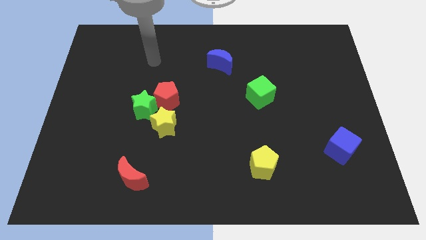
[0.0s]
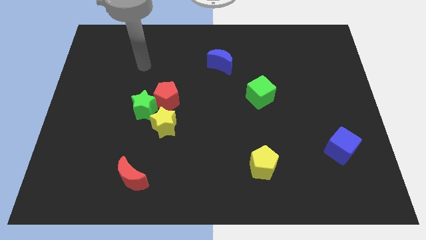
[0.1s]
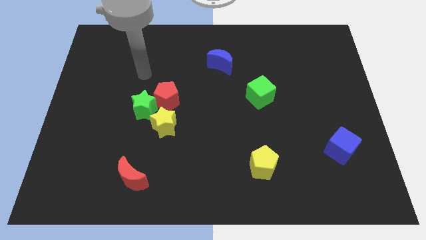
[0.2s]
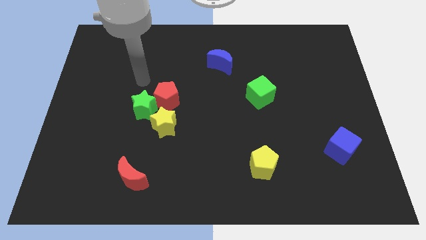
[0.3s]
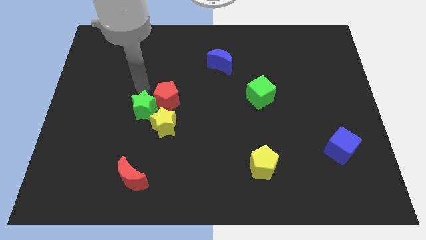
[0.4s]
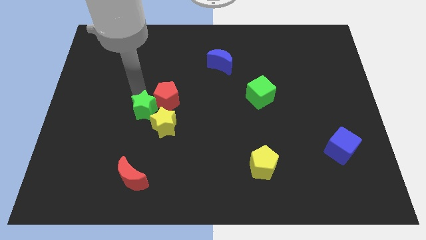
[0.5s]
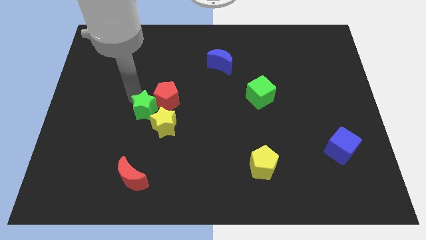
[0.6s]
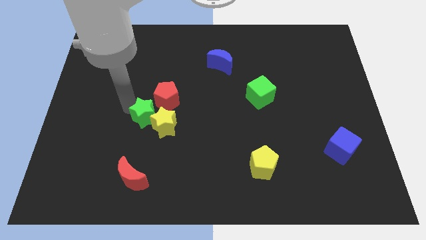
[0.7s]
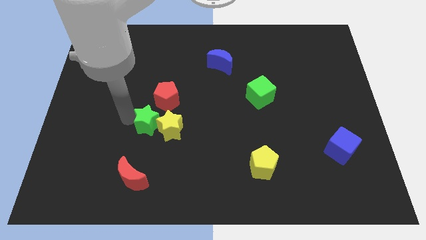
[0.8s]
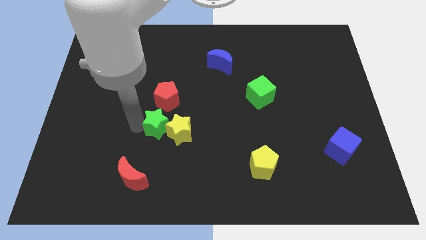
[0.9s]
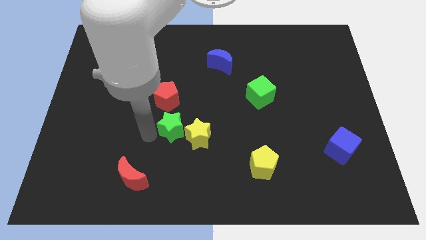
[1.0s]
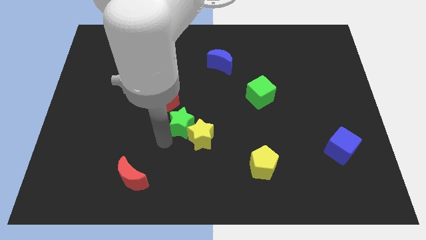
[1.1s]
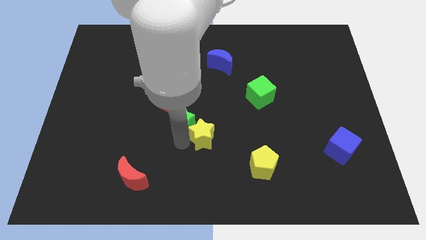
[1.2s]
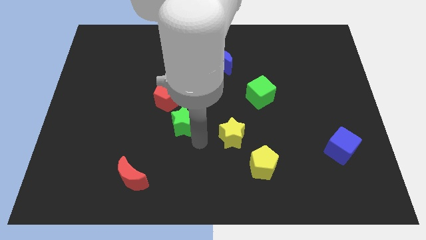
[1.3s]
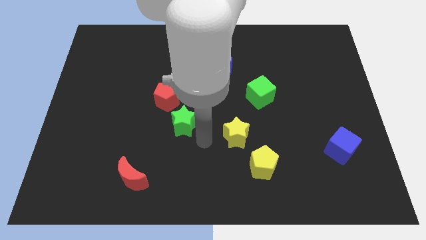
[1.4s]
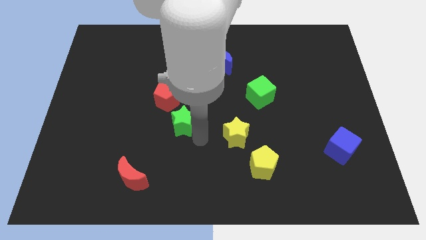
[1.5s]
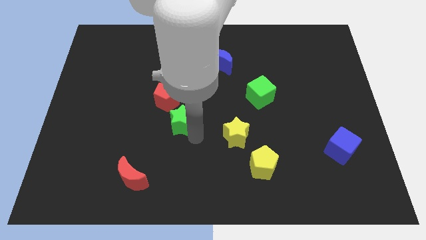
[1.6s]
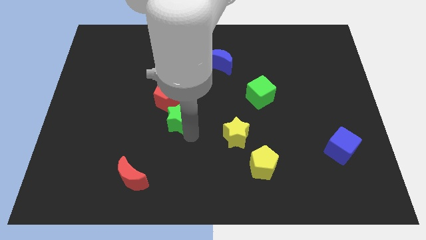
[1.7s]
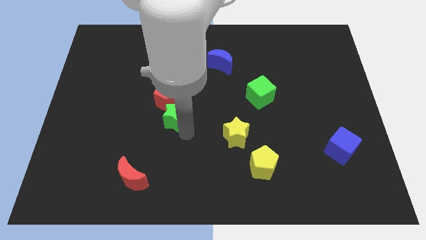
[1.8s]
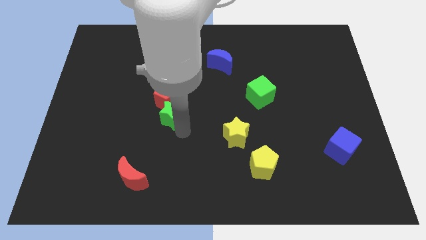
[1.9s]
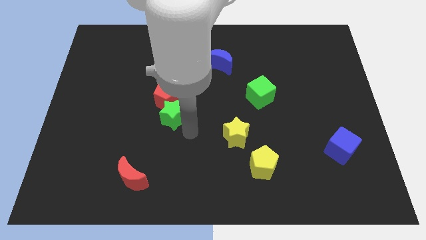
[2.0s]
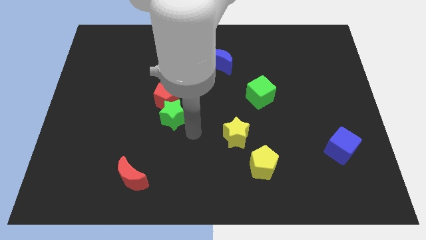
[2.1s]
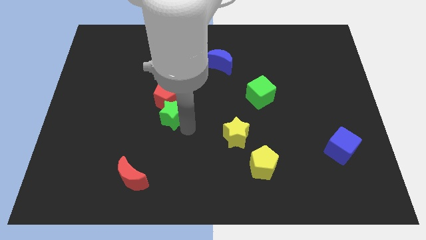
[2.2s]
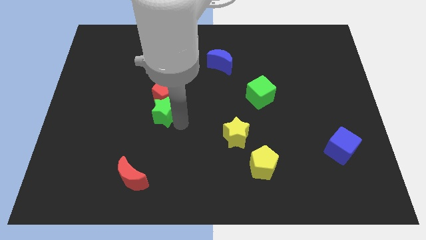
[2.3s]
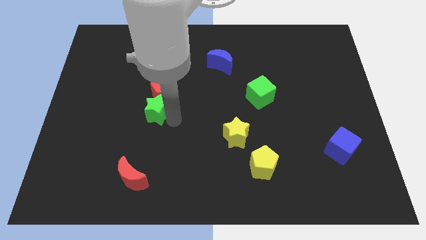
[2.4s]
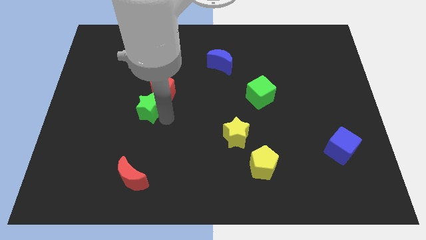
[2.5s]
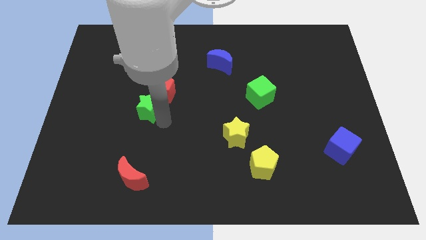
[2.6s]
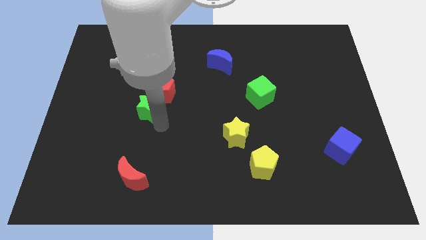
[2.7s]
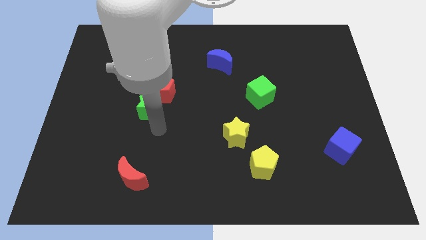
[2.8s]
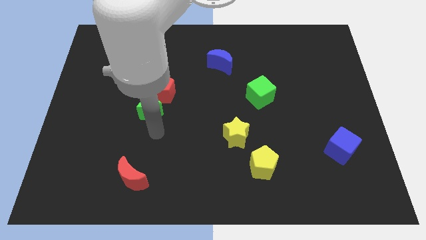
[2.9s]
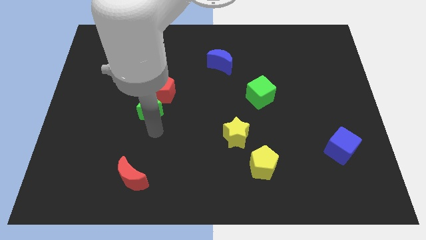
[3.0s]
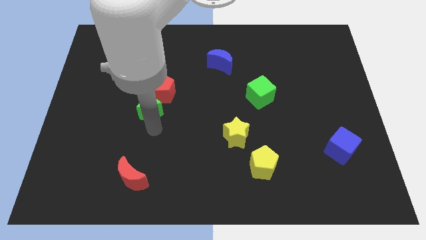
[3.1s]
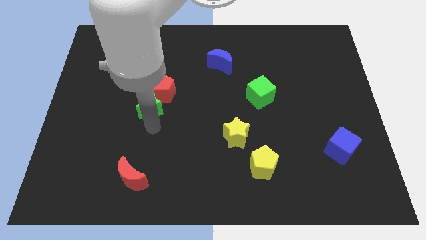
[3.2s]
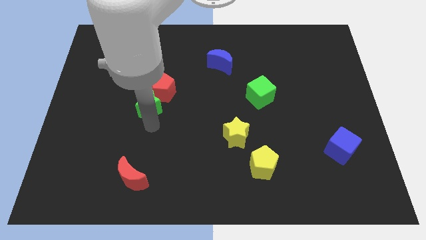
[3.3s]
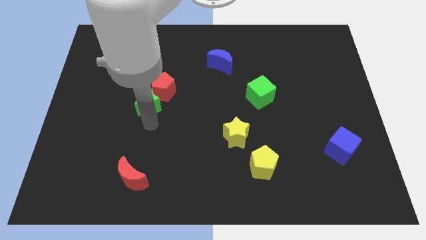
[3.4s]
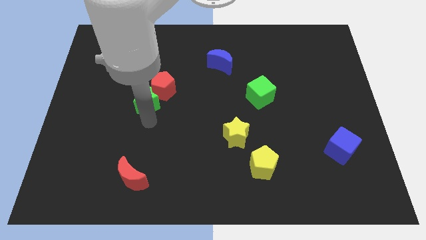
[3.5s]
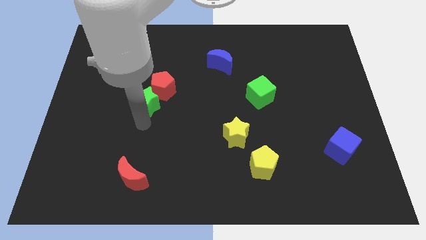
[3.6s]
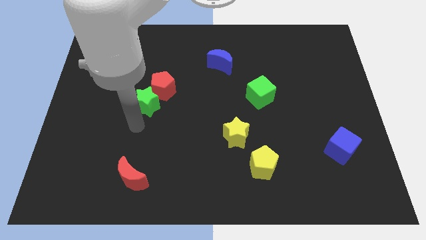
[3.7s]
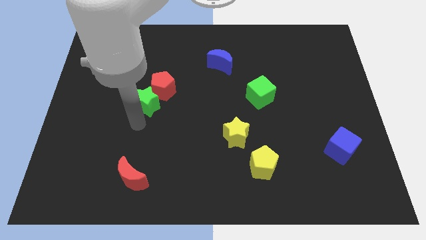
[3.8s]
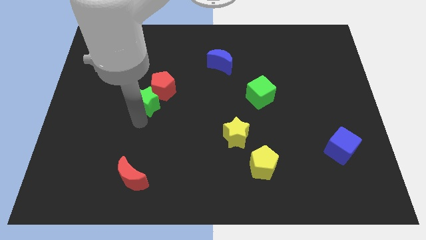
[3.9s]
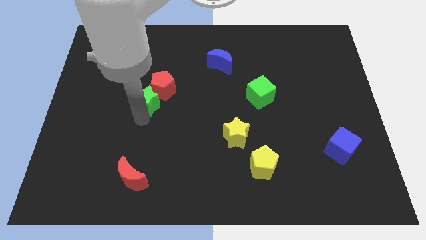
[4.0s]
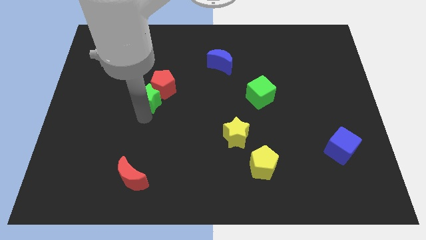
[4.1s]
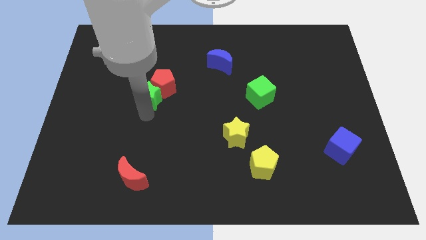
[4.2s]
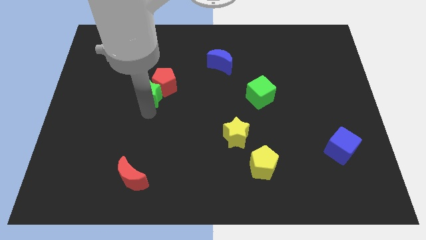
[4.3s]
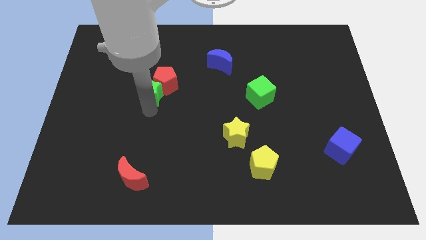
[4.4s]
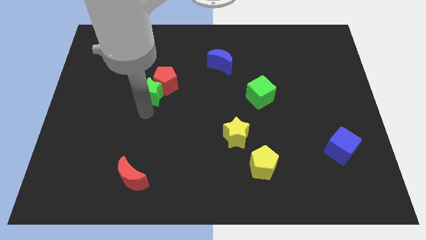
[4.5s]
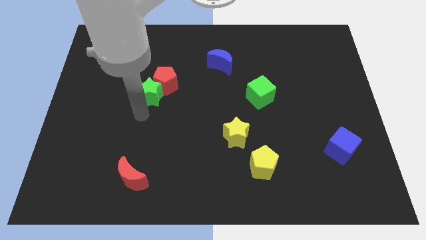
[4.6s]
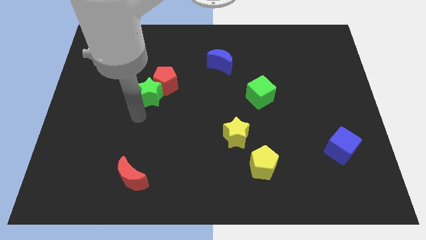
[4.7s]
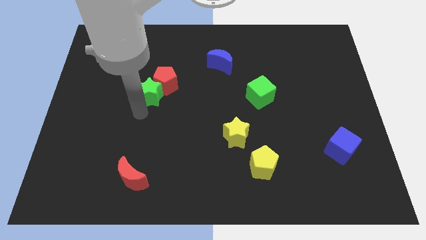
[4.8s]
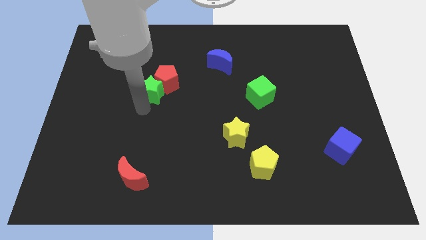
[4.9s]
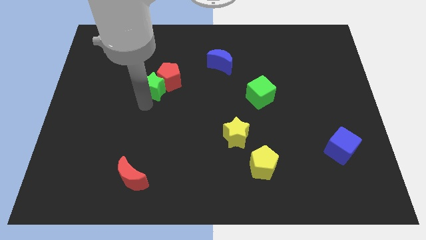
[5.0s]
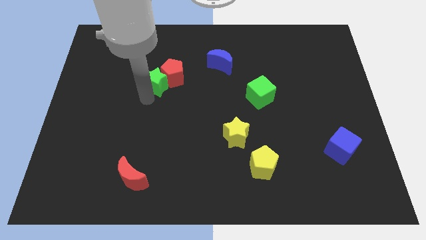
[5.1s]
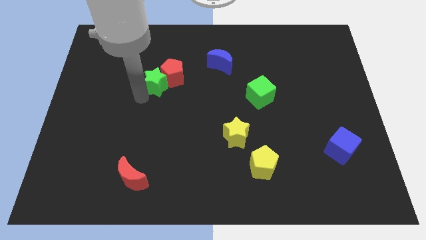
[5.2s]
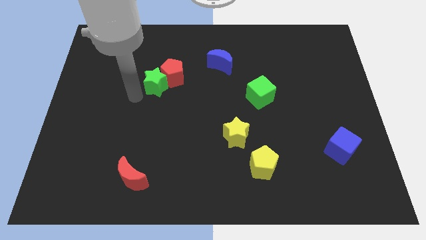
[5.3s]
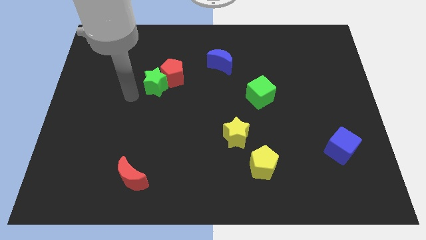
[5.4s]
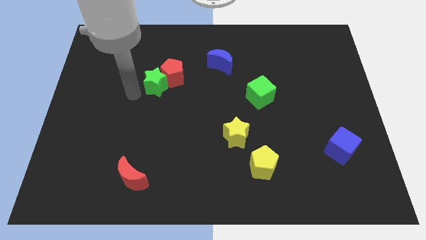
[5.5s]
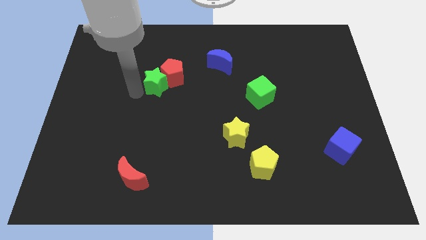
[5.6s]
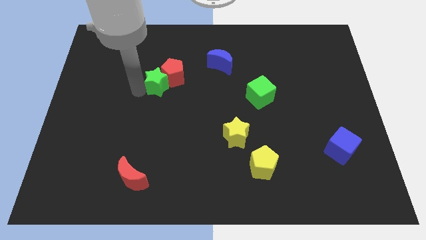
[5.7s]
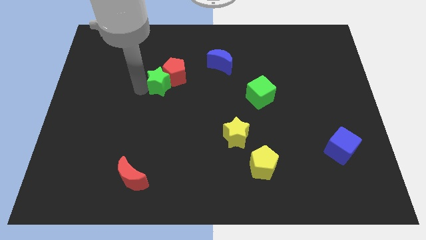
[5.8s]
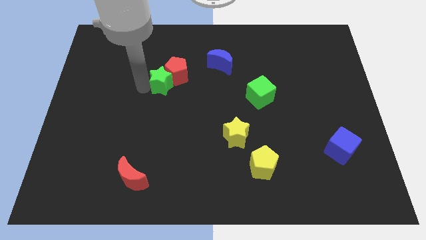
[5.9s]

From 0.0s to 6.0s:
push the green star diagonally upwards and to the right slightly

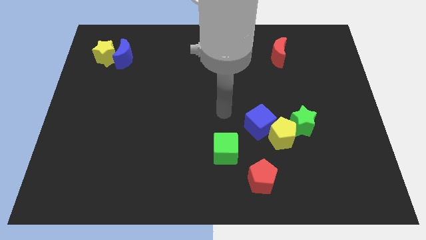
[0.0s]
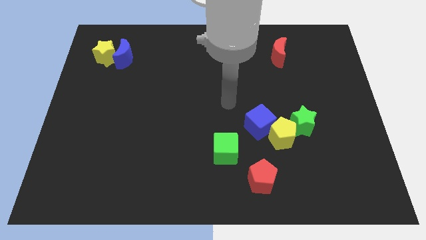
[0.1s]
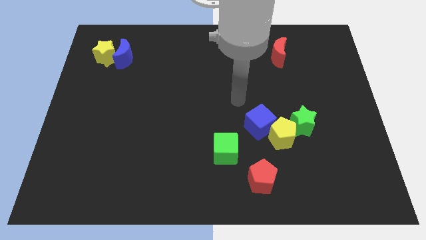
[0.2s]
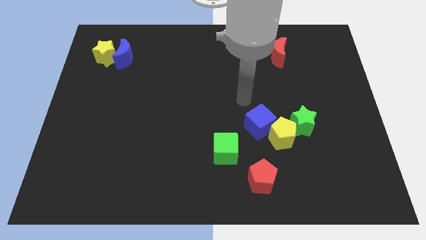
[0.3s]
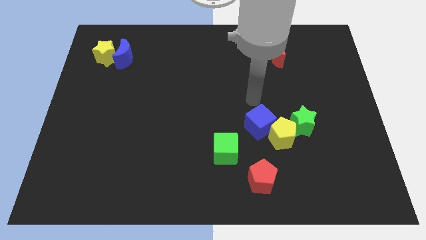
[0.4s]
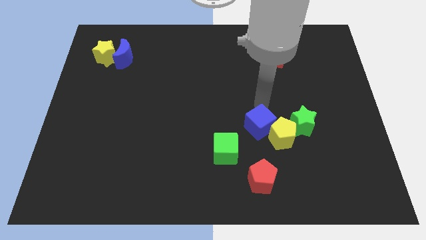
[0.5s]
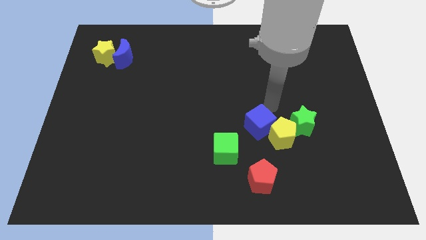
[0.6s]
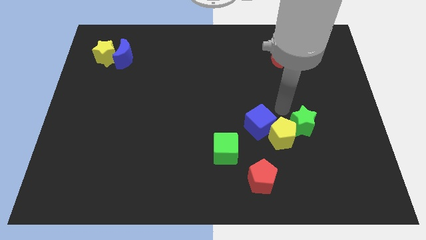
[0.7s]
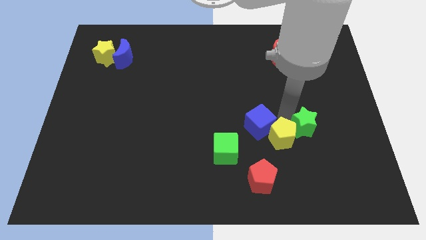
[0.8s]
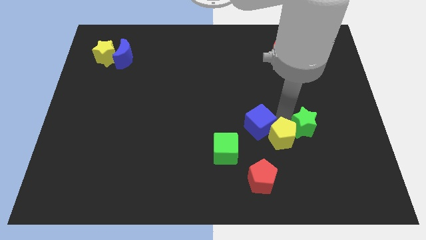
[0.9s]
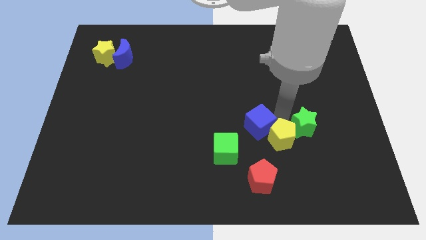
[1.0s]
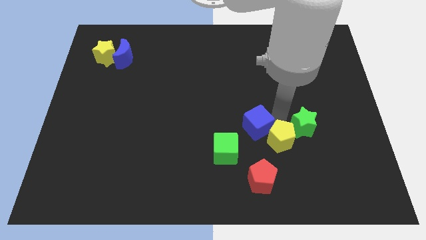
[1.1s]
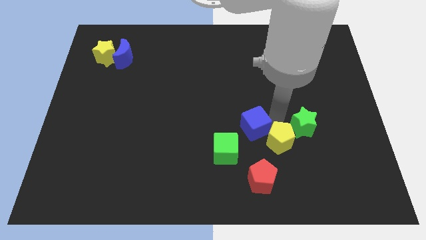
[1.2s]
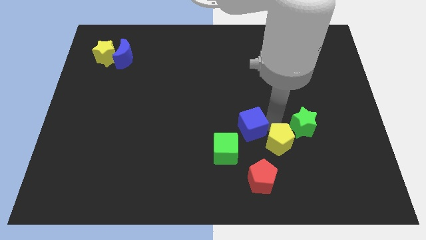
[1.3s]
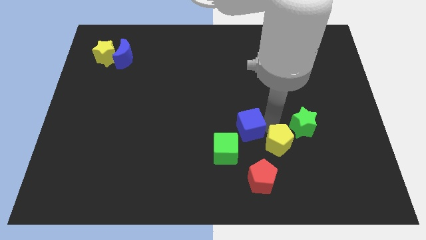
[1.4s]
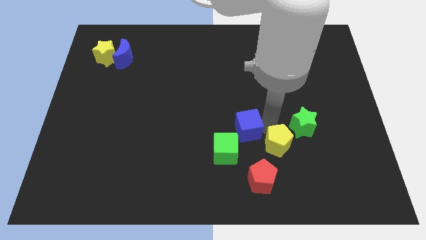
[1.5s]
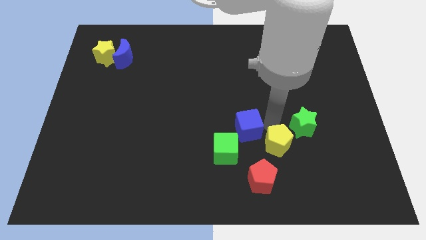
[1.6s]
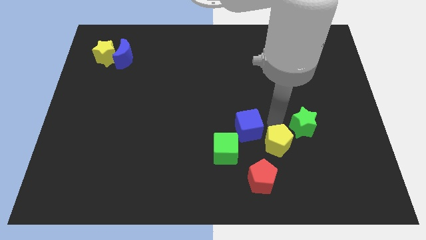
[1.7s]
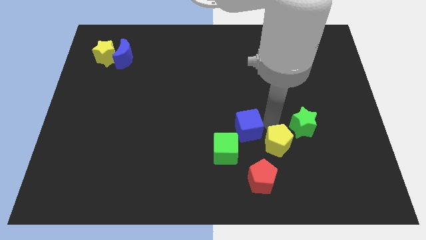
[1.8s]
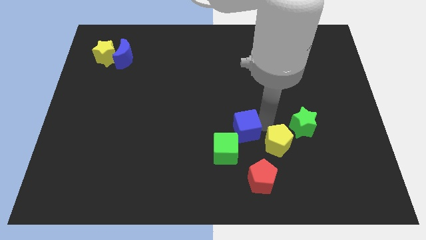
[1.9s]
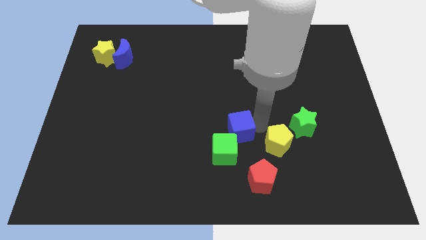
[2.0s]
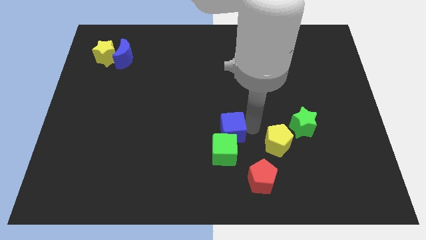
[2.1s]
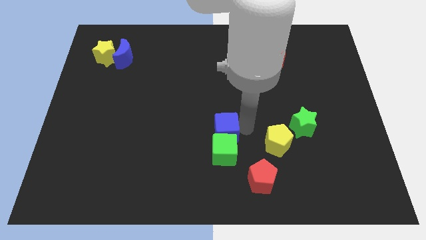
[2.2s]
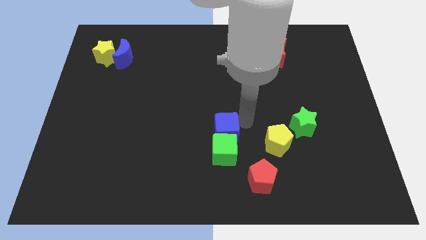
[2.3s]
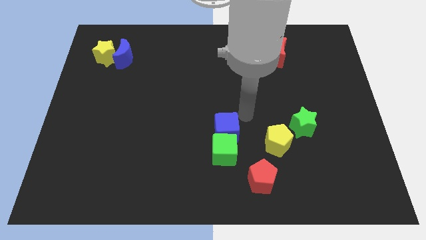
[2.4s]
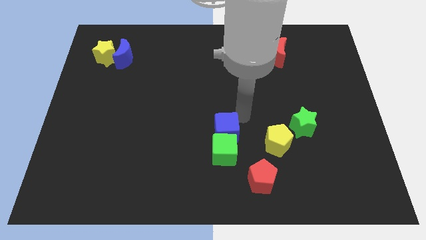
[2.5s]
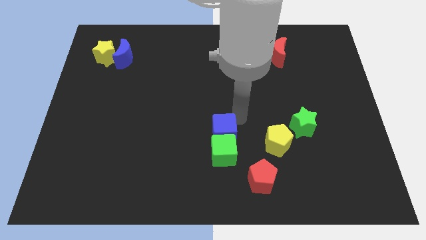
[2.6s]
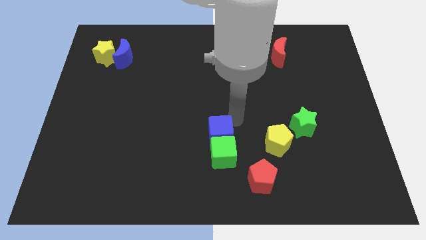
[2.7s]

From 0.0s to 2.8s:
slightly push the blue cube downwards and to the left
